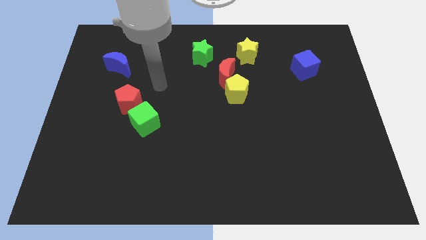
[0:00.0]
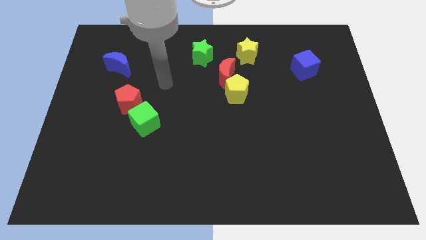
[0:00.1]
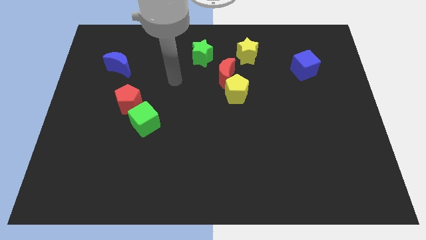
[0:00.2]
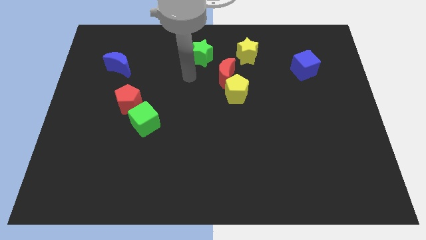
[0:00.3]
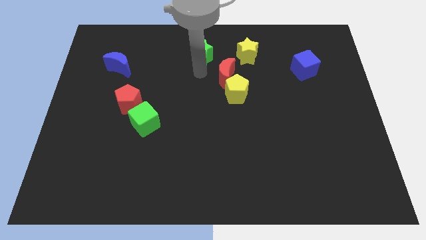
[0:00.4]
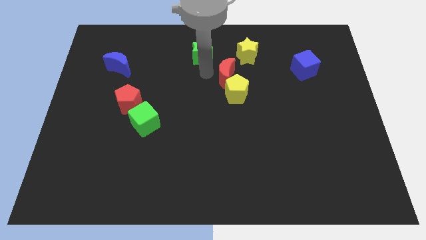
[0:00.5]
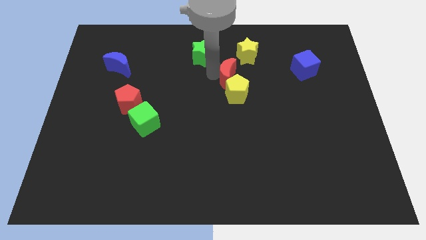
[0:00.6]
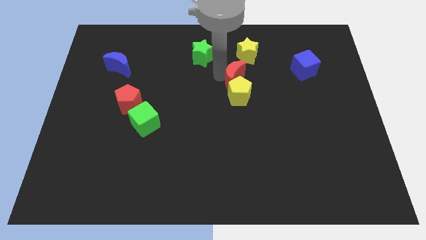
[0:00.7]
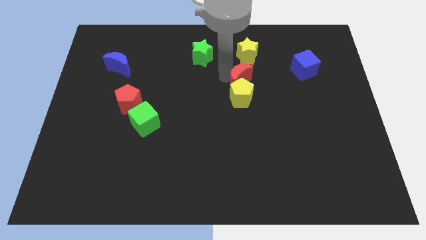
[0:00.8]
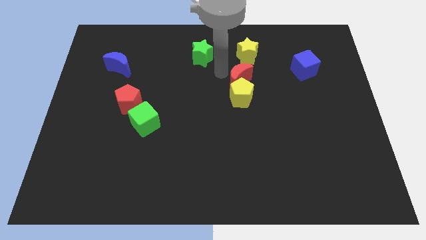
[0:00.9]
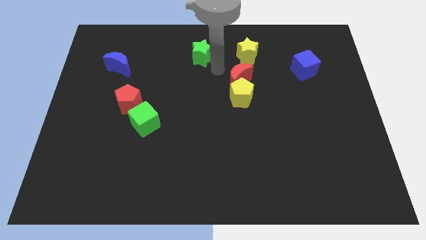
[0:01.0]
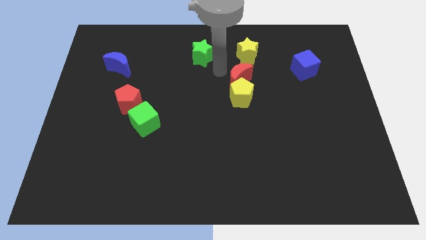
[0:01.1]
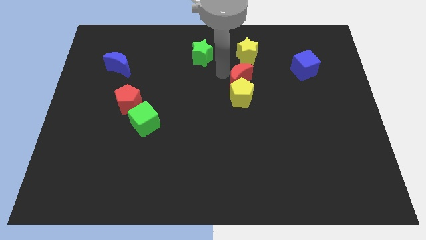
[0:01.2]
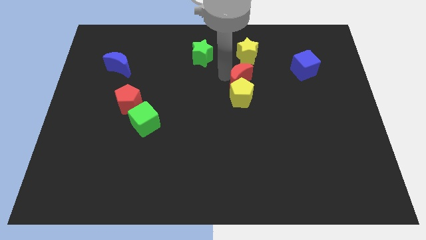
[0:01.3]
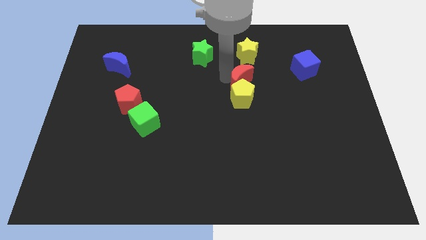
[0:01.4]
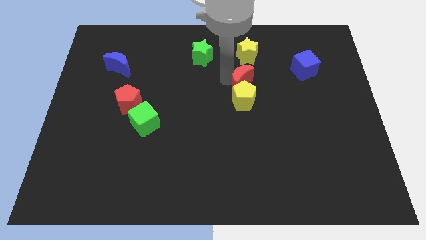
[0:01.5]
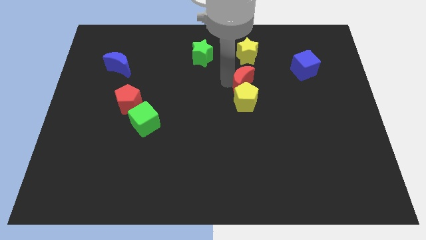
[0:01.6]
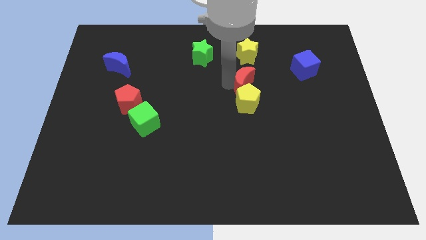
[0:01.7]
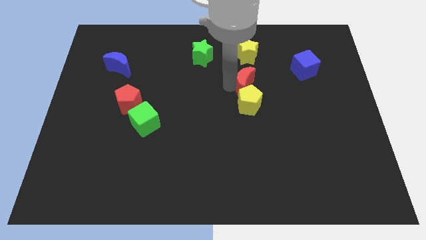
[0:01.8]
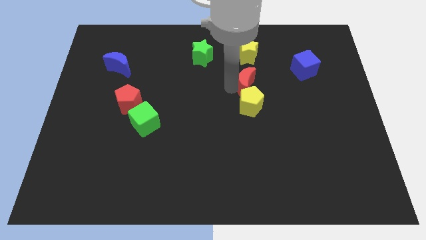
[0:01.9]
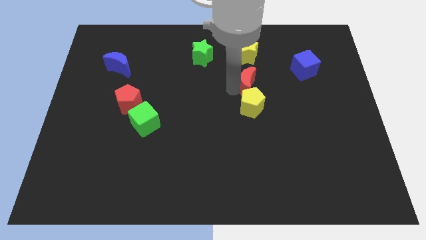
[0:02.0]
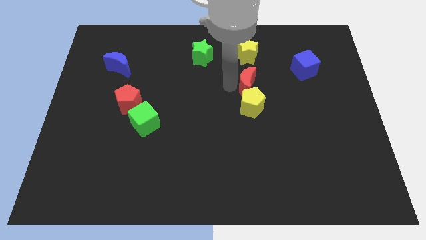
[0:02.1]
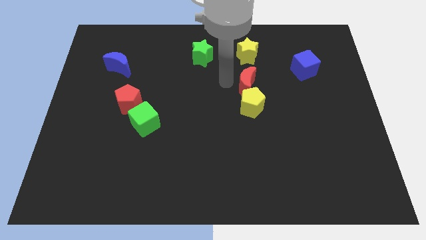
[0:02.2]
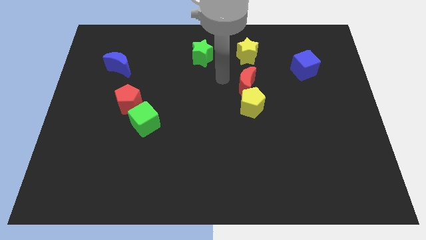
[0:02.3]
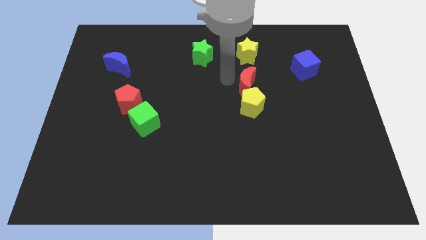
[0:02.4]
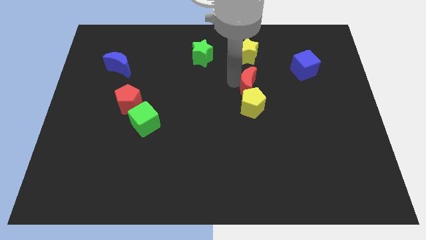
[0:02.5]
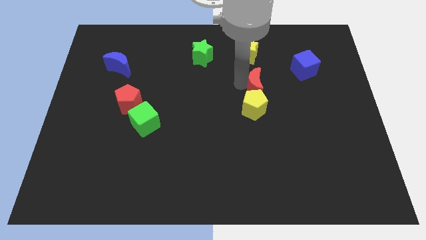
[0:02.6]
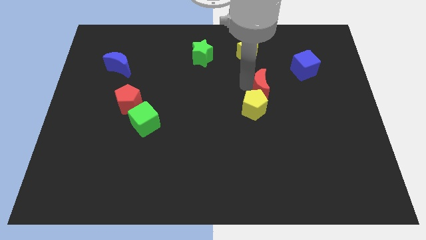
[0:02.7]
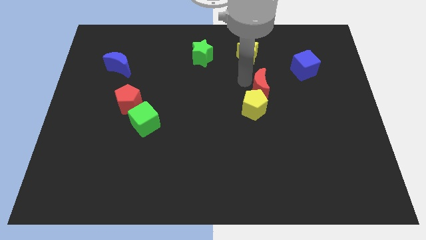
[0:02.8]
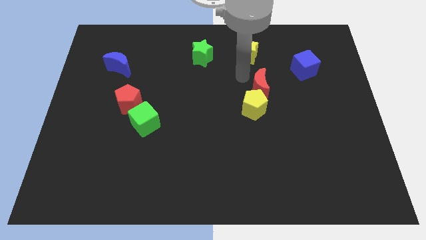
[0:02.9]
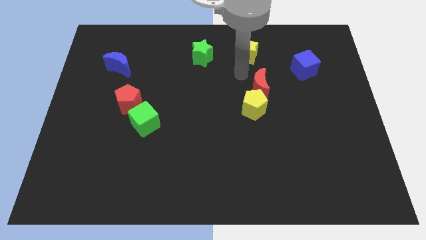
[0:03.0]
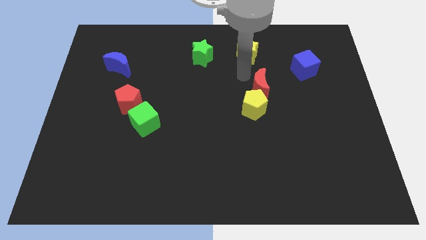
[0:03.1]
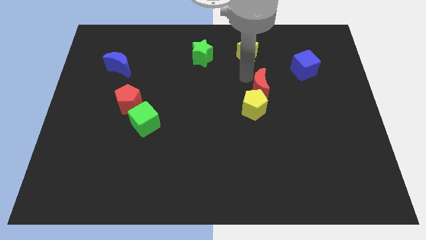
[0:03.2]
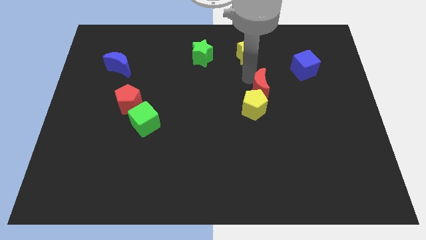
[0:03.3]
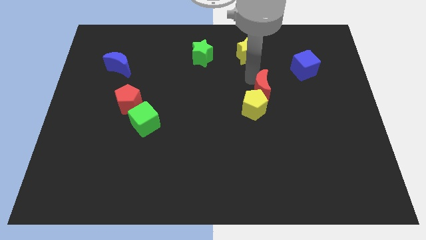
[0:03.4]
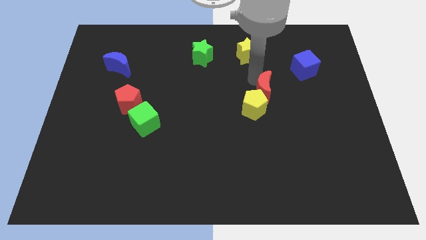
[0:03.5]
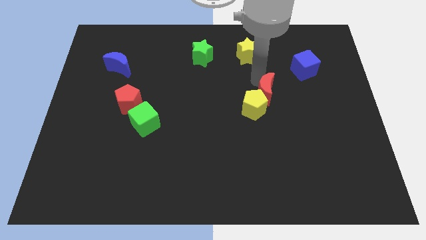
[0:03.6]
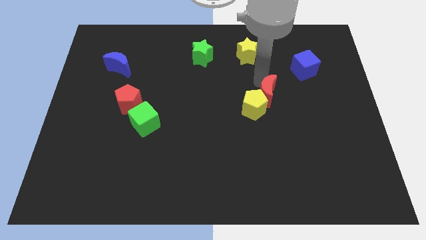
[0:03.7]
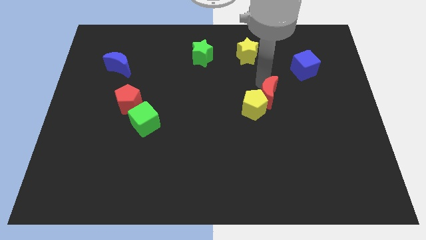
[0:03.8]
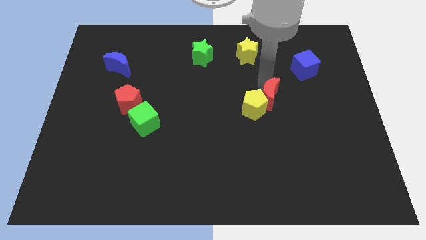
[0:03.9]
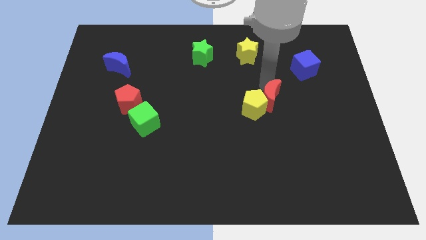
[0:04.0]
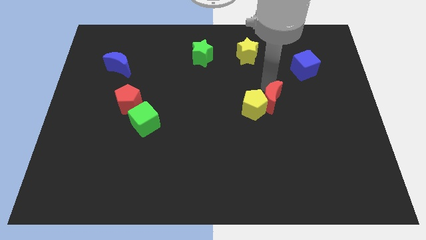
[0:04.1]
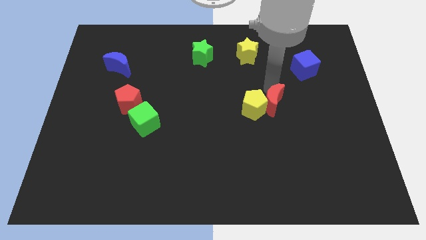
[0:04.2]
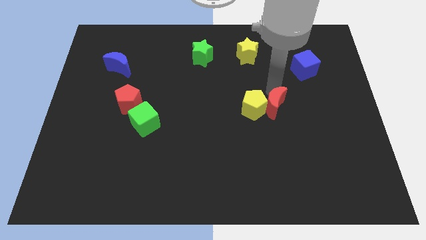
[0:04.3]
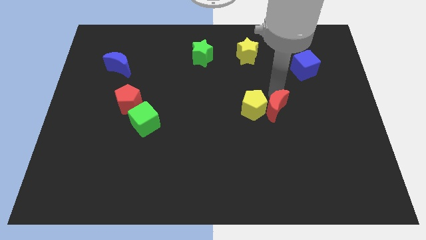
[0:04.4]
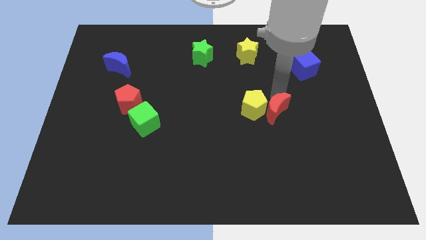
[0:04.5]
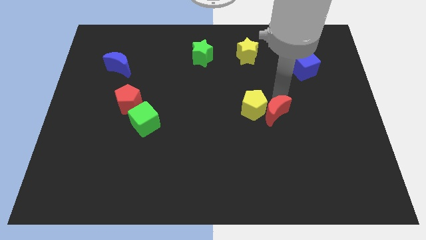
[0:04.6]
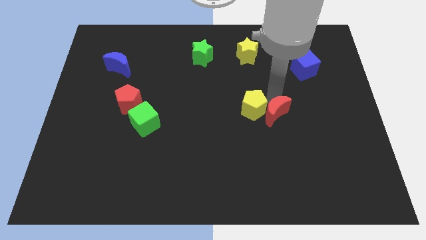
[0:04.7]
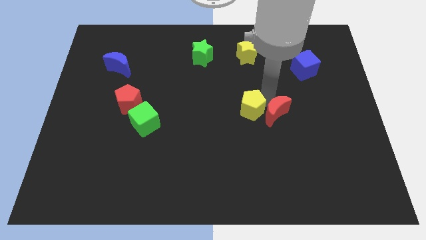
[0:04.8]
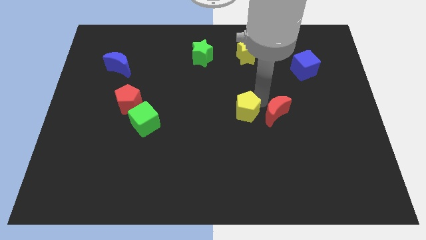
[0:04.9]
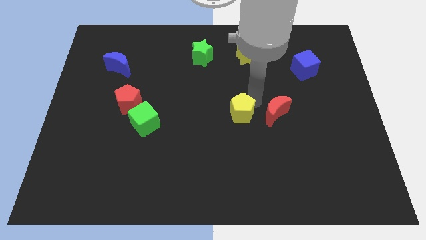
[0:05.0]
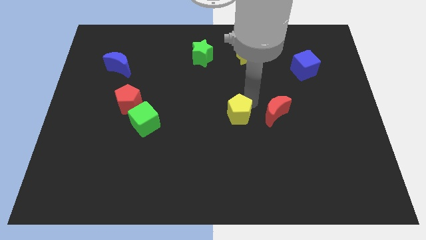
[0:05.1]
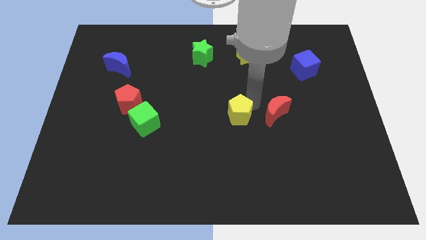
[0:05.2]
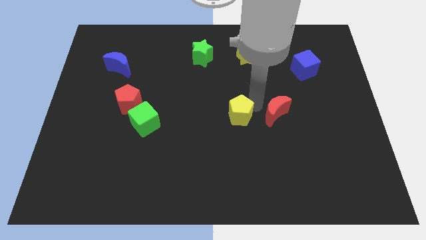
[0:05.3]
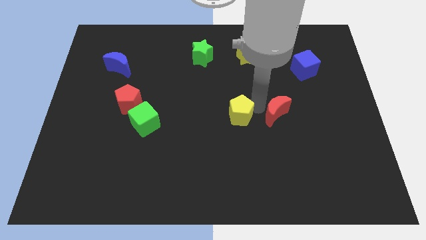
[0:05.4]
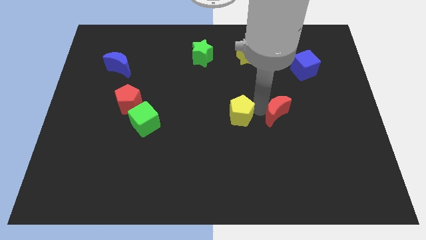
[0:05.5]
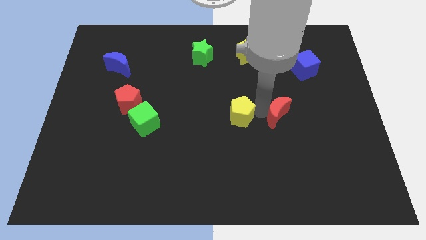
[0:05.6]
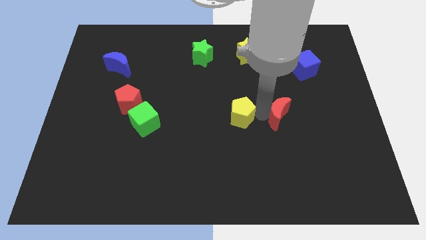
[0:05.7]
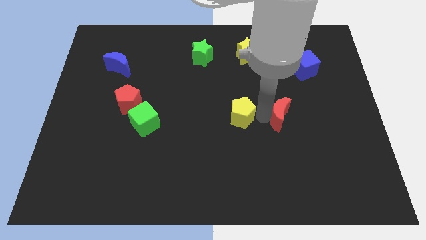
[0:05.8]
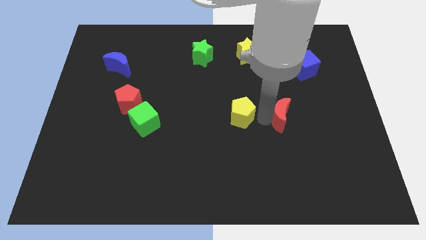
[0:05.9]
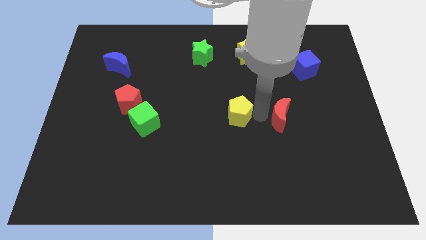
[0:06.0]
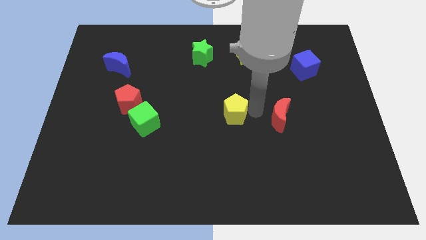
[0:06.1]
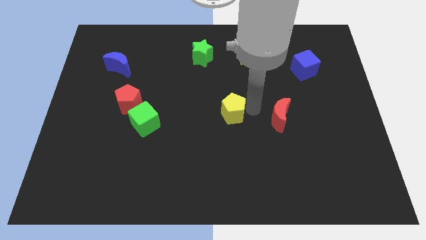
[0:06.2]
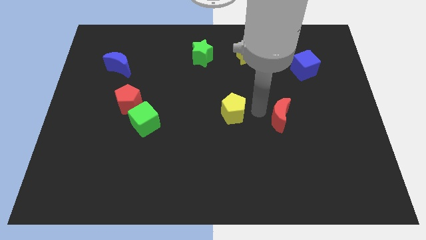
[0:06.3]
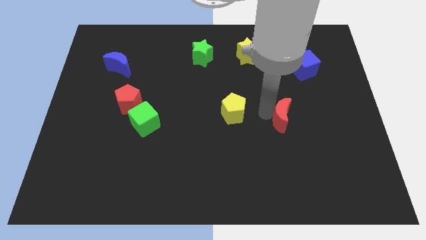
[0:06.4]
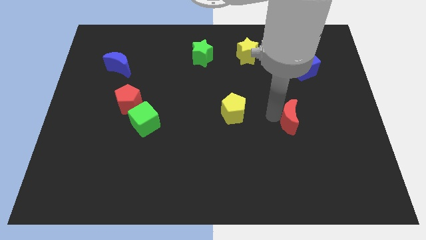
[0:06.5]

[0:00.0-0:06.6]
move the red moon downwards and right diagonally

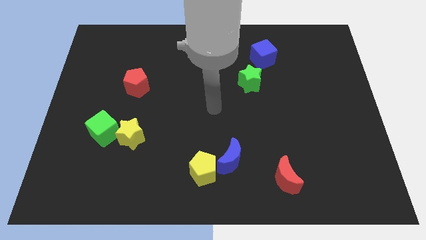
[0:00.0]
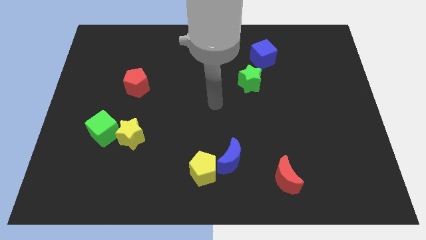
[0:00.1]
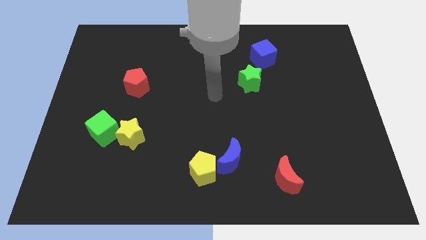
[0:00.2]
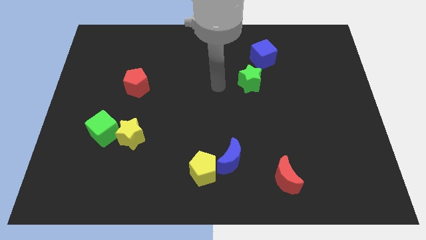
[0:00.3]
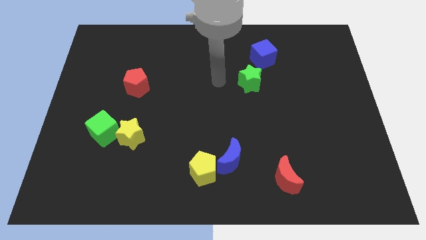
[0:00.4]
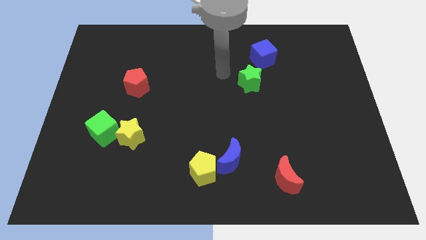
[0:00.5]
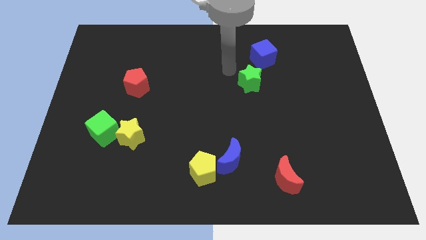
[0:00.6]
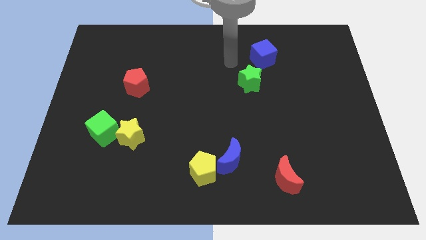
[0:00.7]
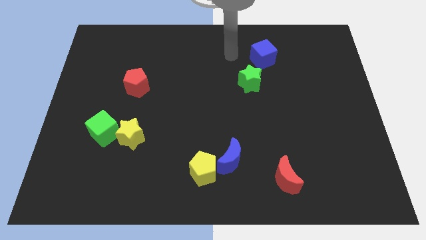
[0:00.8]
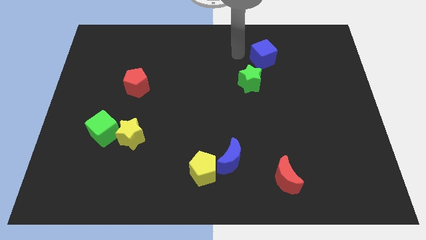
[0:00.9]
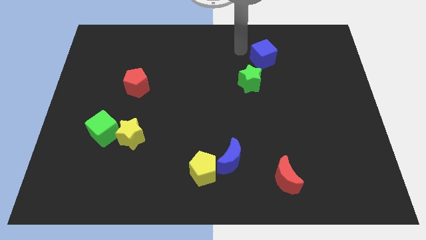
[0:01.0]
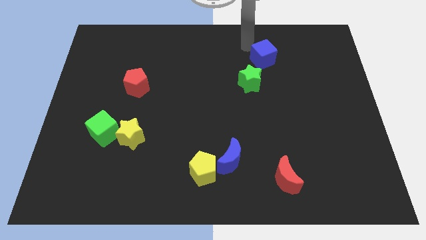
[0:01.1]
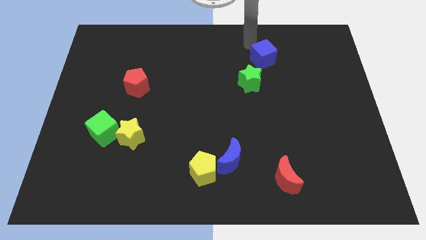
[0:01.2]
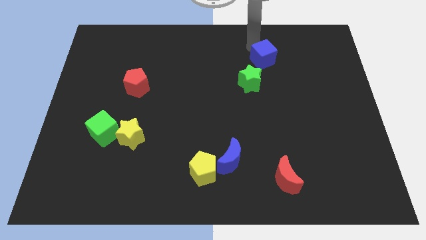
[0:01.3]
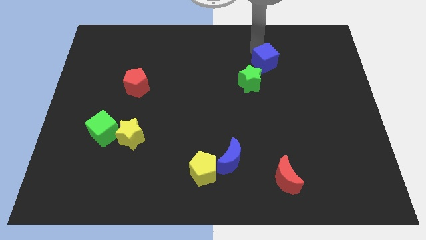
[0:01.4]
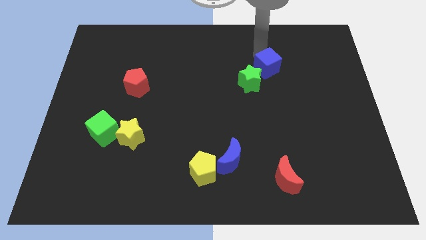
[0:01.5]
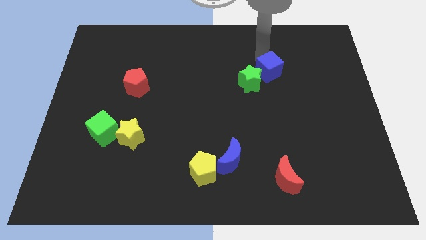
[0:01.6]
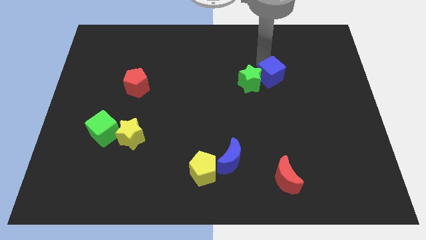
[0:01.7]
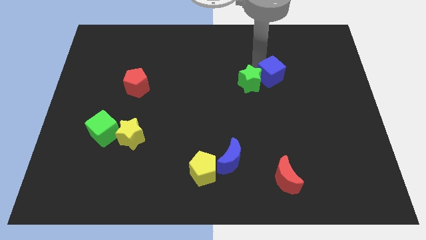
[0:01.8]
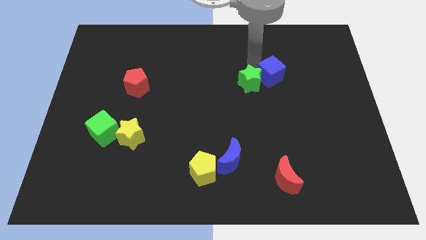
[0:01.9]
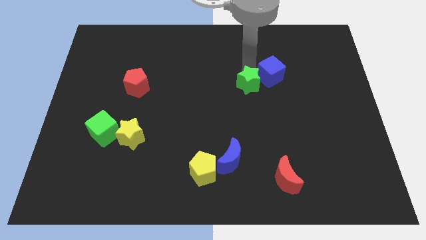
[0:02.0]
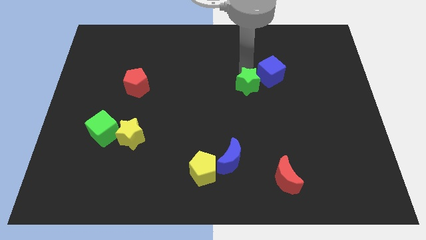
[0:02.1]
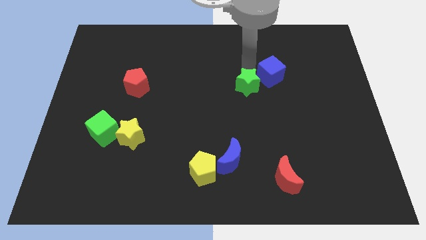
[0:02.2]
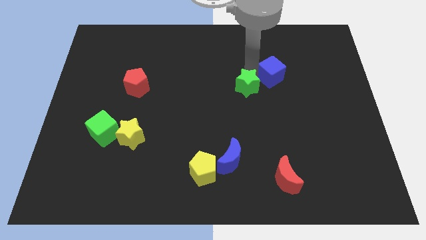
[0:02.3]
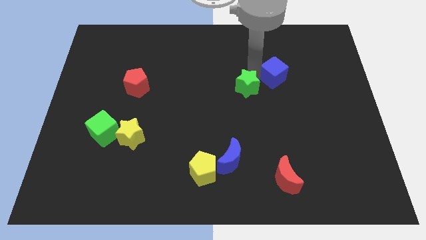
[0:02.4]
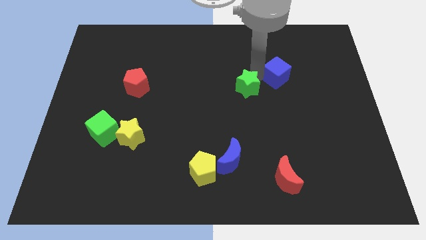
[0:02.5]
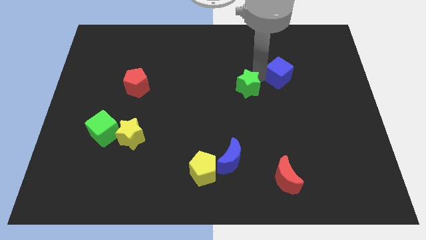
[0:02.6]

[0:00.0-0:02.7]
push the blue cube down and then to the right a little bit
